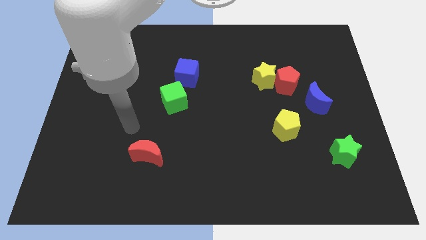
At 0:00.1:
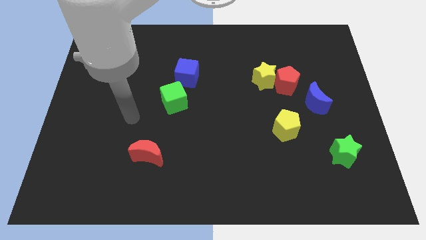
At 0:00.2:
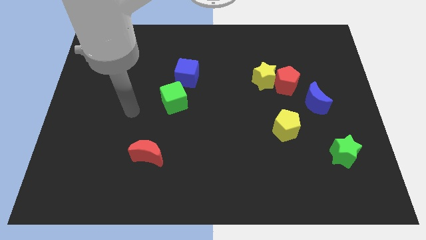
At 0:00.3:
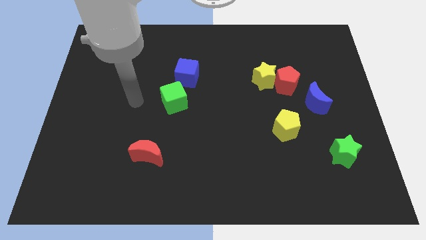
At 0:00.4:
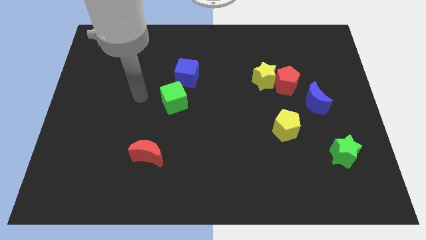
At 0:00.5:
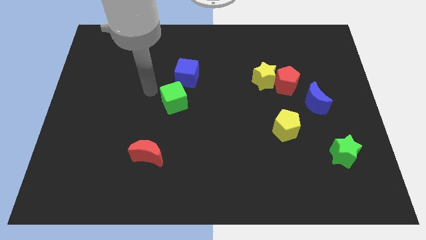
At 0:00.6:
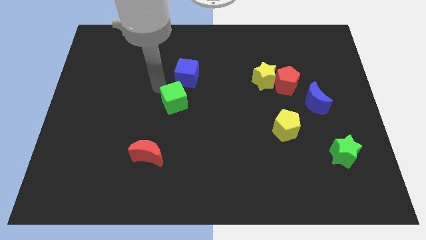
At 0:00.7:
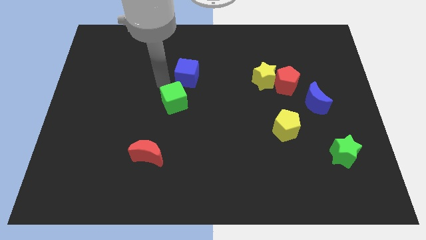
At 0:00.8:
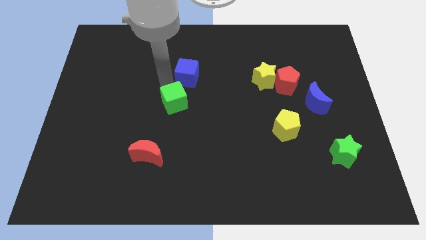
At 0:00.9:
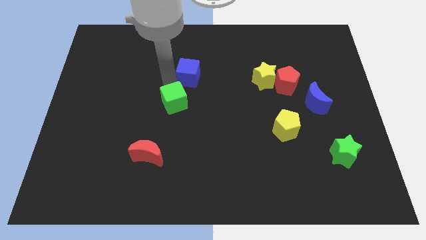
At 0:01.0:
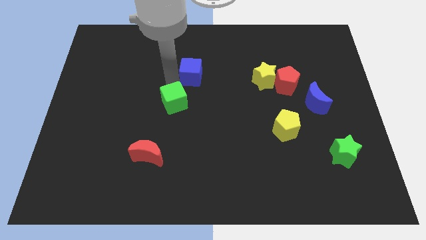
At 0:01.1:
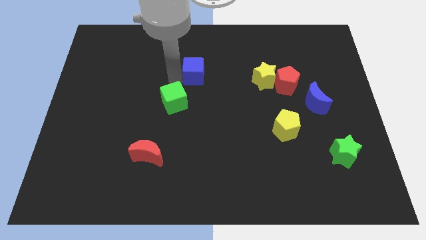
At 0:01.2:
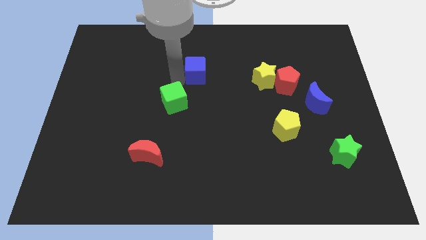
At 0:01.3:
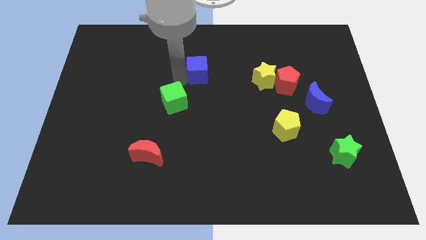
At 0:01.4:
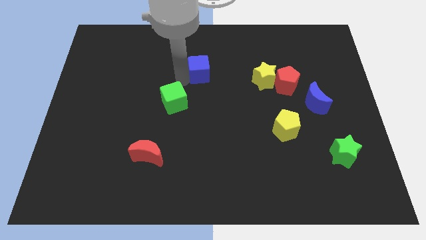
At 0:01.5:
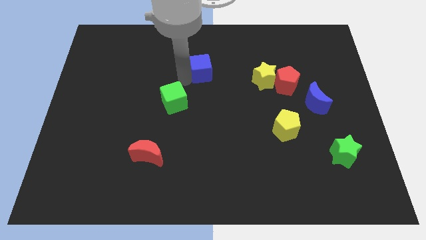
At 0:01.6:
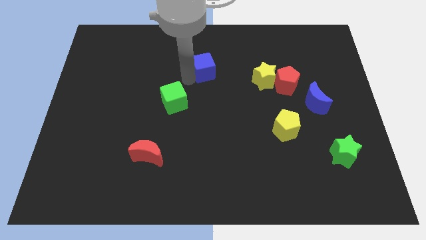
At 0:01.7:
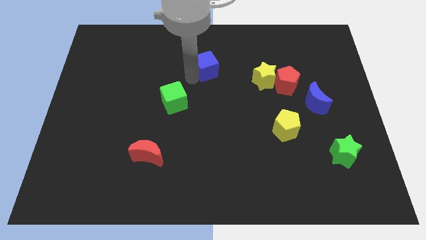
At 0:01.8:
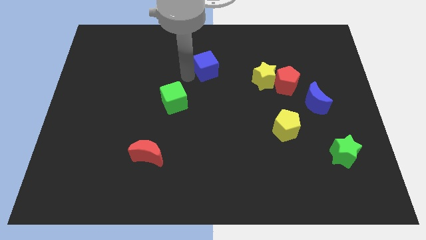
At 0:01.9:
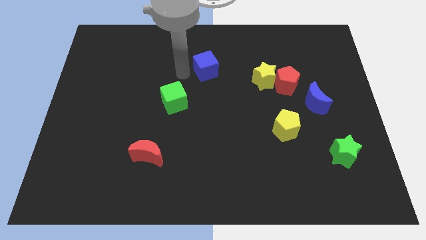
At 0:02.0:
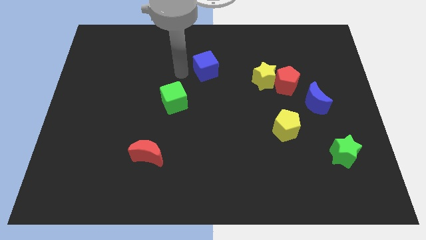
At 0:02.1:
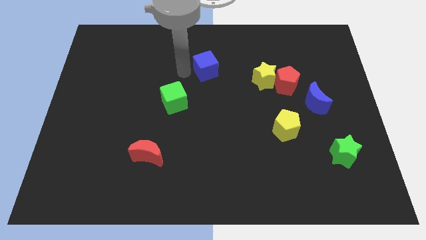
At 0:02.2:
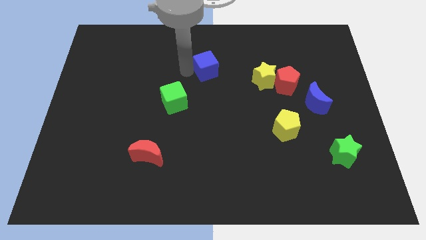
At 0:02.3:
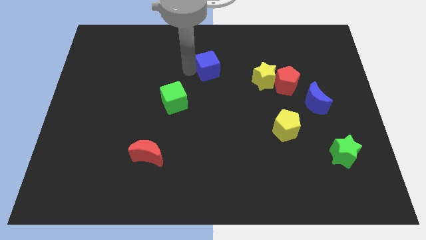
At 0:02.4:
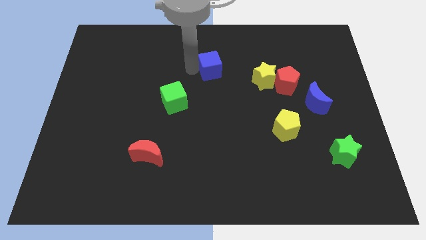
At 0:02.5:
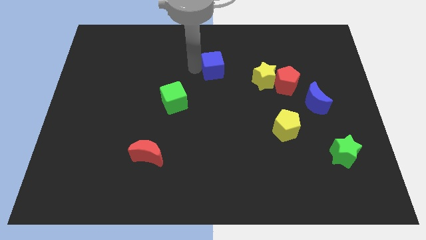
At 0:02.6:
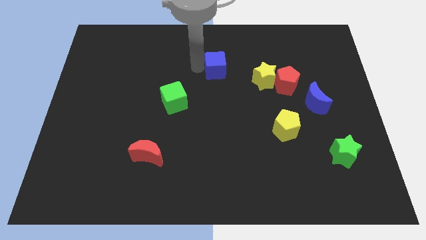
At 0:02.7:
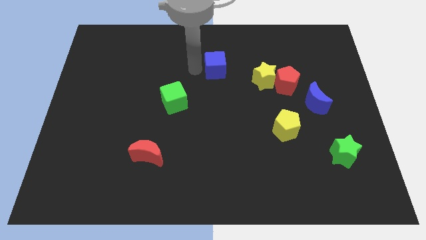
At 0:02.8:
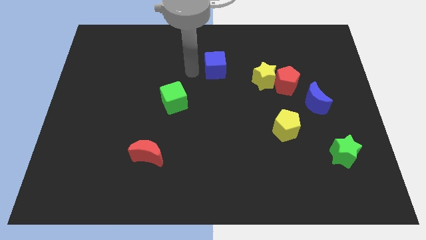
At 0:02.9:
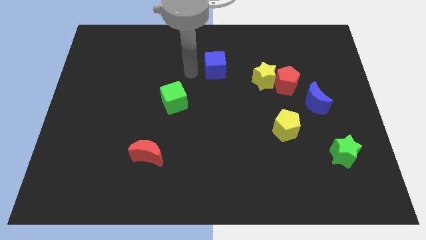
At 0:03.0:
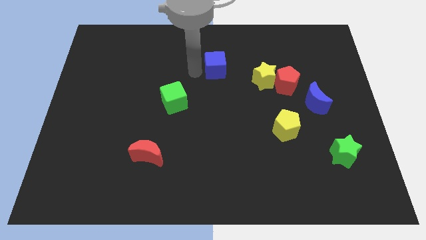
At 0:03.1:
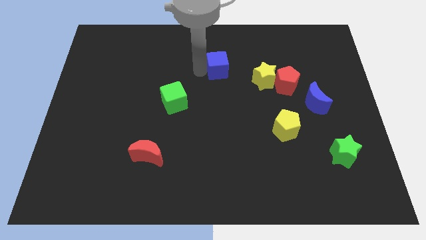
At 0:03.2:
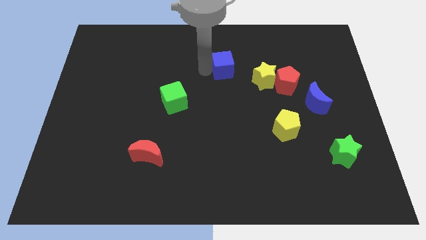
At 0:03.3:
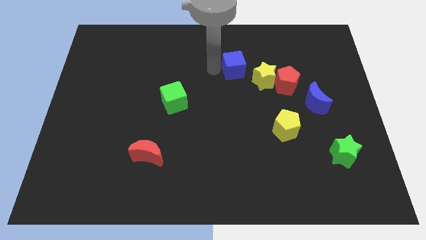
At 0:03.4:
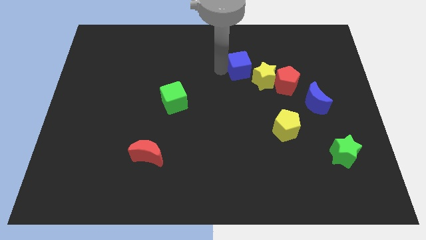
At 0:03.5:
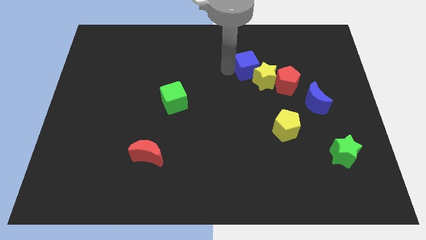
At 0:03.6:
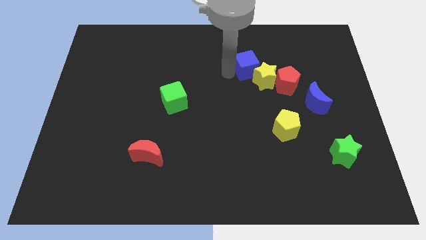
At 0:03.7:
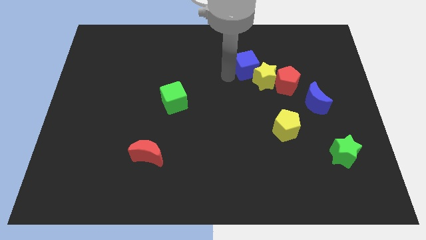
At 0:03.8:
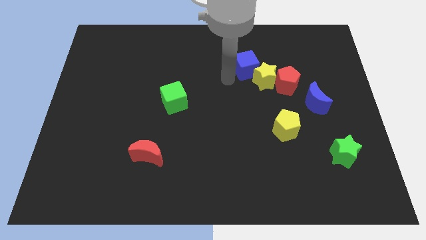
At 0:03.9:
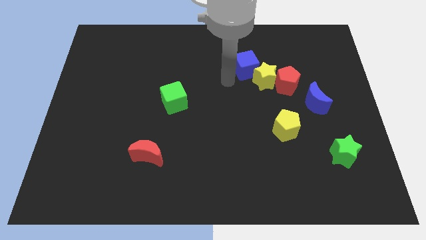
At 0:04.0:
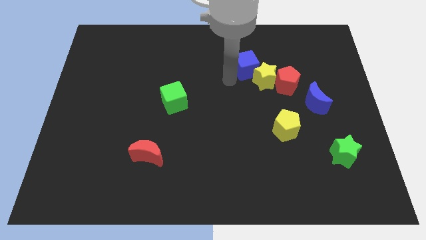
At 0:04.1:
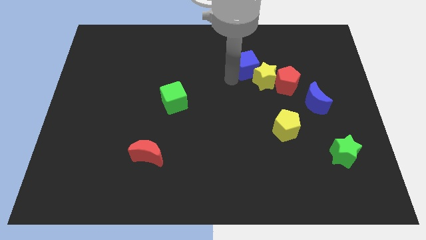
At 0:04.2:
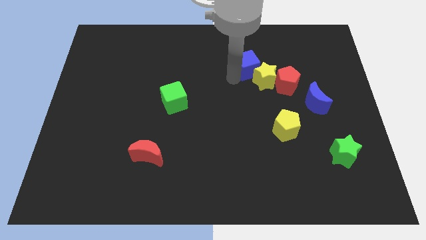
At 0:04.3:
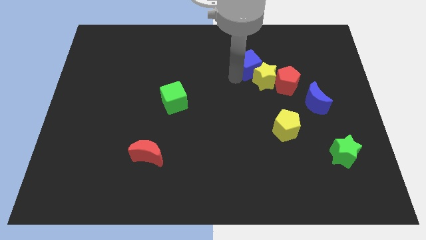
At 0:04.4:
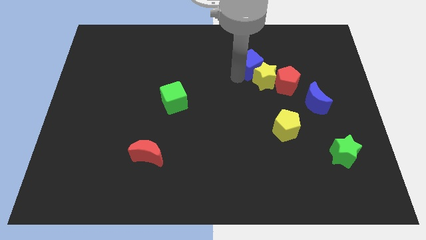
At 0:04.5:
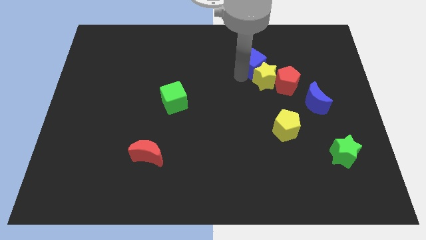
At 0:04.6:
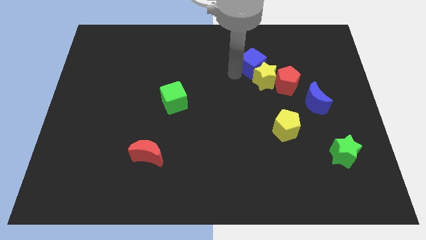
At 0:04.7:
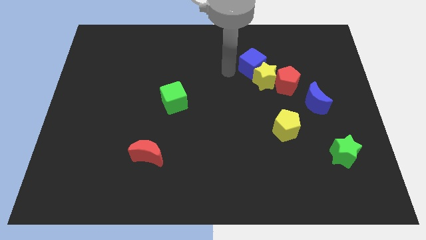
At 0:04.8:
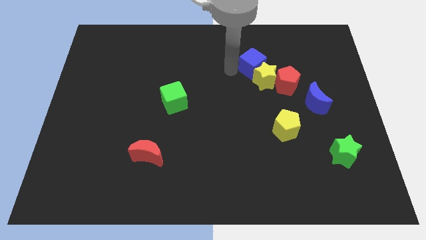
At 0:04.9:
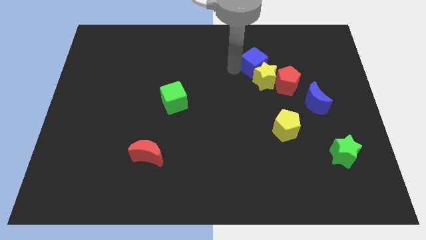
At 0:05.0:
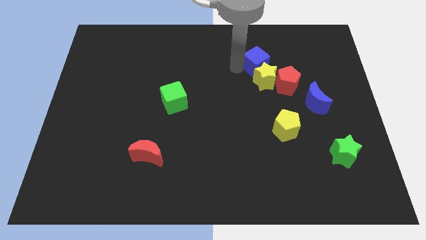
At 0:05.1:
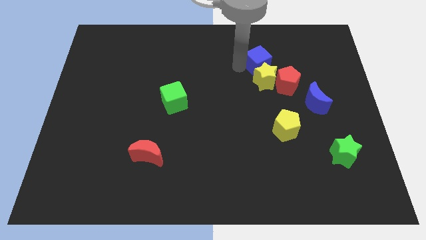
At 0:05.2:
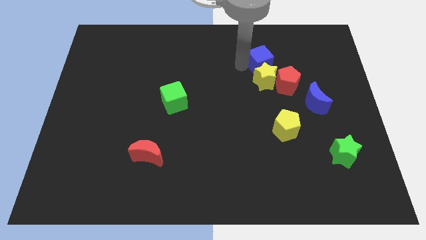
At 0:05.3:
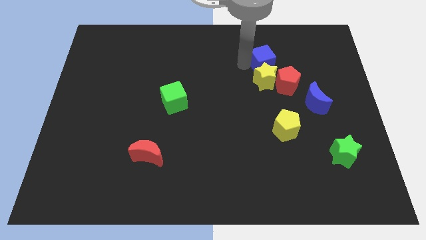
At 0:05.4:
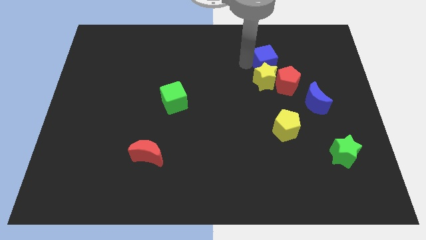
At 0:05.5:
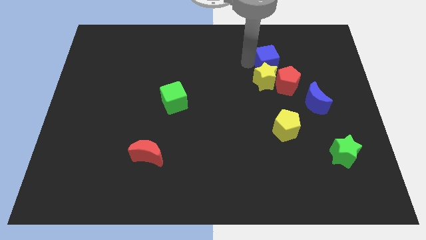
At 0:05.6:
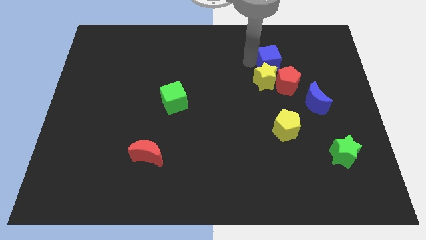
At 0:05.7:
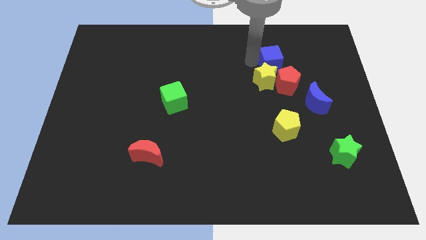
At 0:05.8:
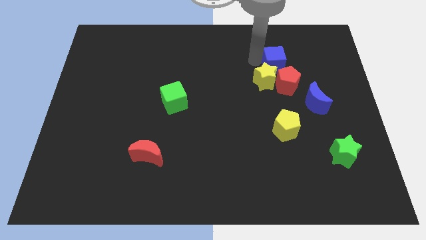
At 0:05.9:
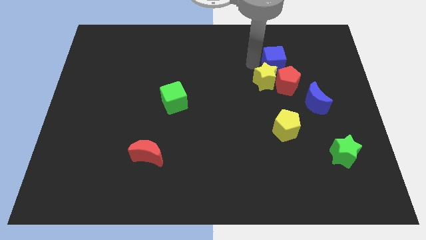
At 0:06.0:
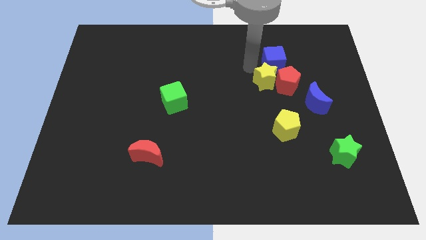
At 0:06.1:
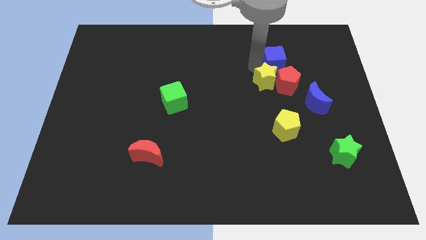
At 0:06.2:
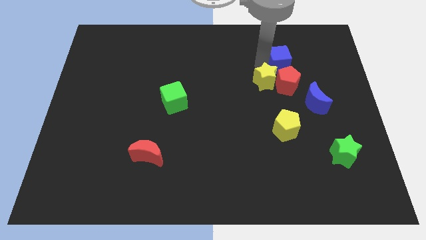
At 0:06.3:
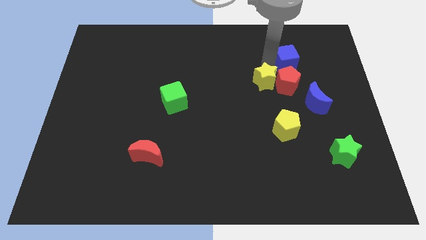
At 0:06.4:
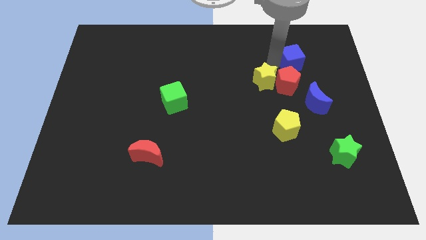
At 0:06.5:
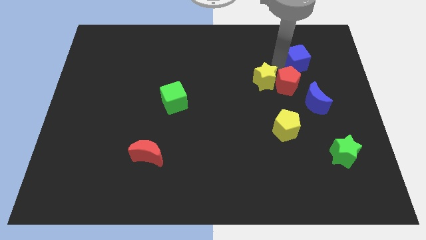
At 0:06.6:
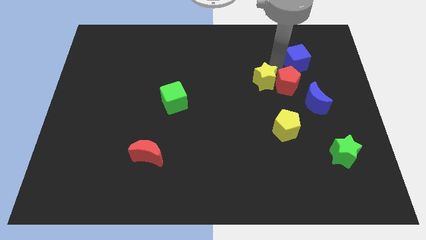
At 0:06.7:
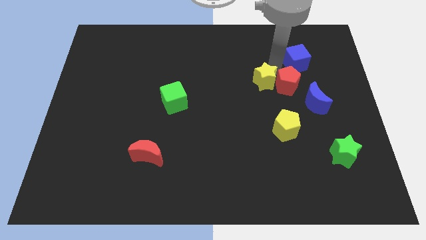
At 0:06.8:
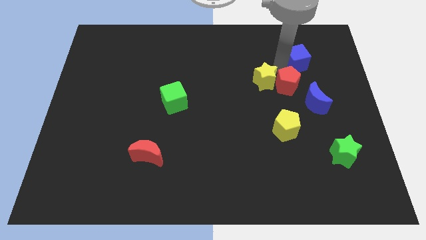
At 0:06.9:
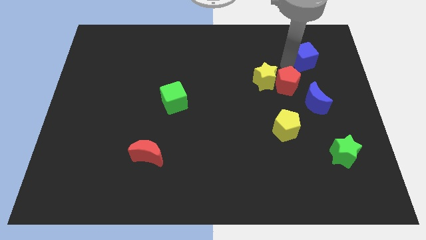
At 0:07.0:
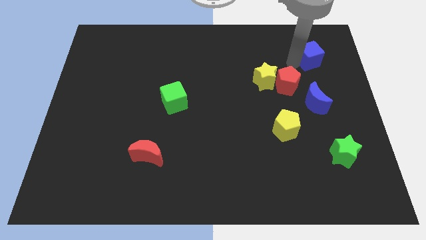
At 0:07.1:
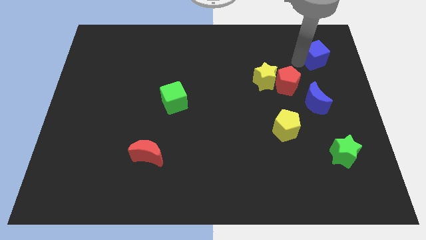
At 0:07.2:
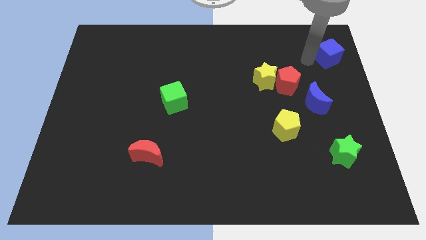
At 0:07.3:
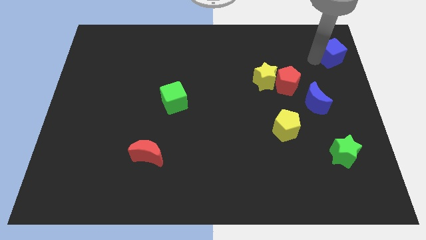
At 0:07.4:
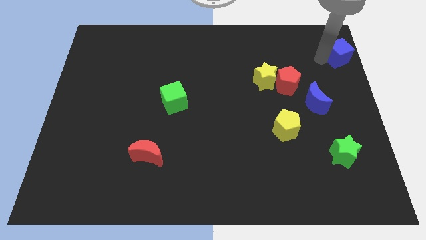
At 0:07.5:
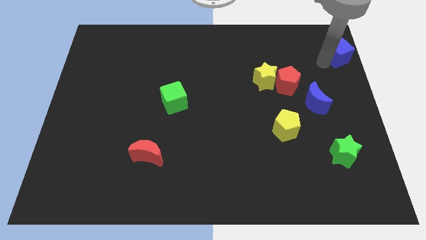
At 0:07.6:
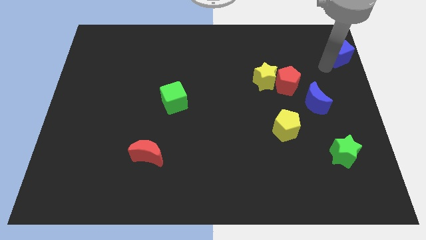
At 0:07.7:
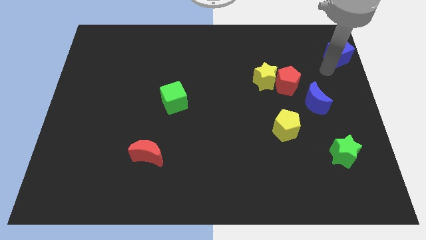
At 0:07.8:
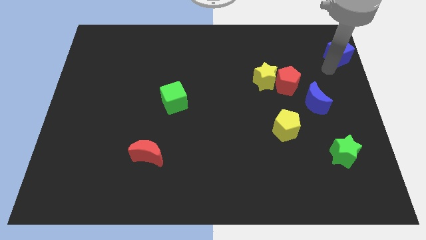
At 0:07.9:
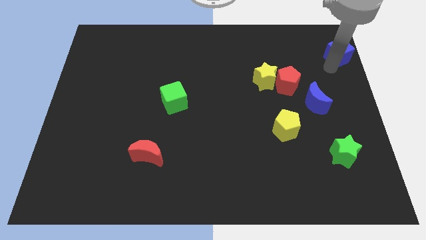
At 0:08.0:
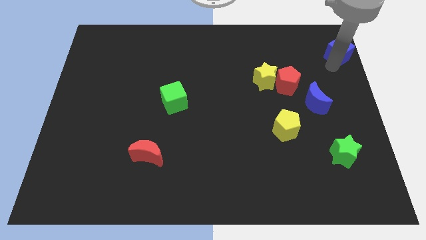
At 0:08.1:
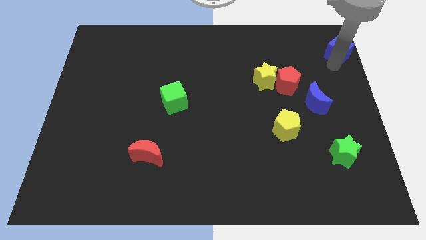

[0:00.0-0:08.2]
slide the blue cube to the top right corner
